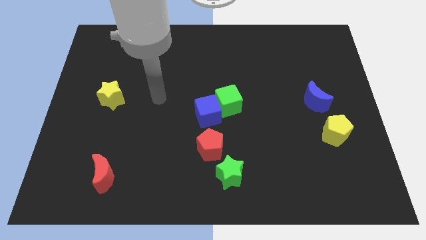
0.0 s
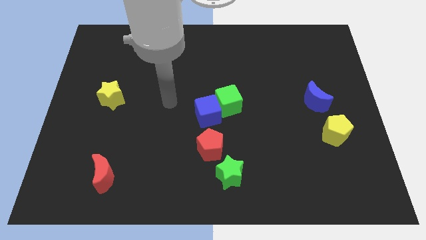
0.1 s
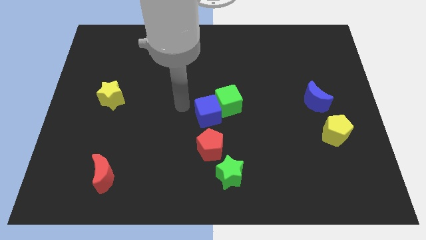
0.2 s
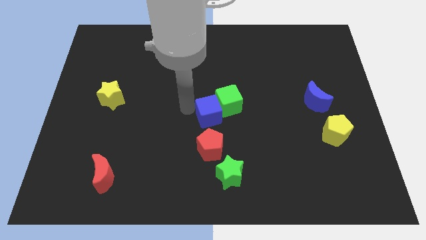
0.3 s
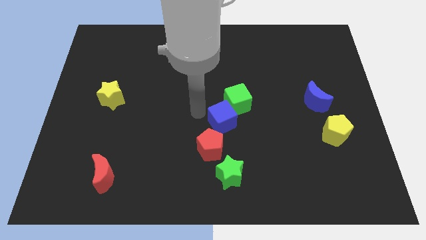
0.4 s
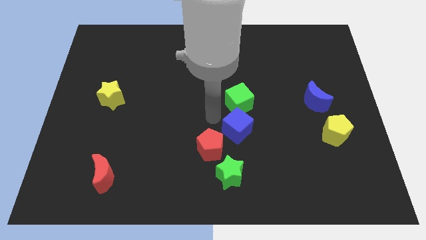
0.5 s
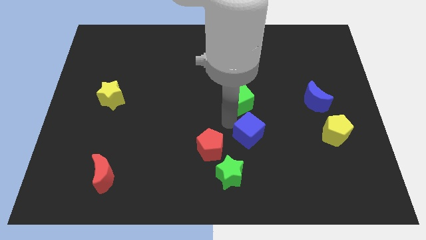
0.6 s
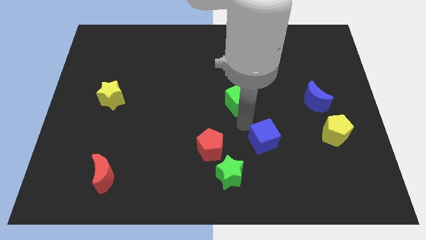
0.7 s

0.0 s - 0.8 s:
pull the green cube apart from the blue cube

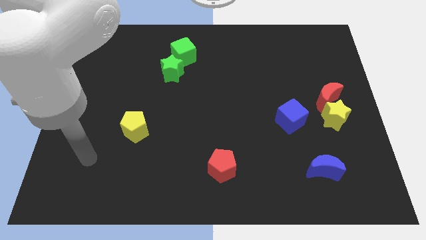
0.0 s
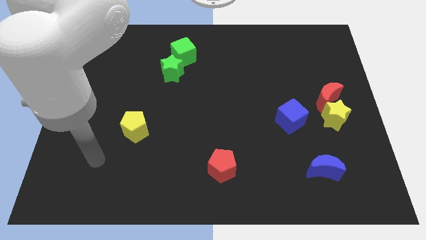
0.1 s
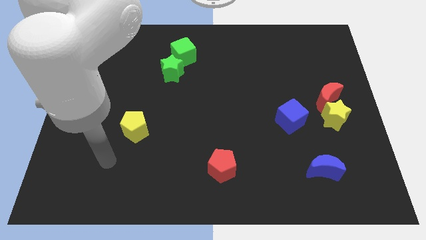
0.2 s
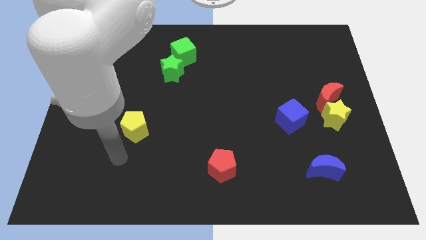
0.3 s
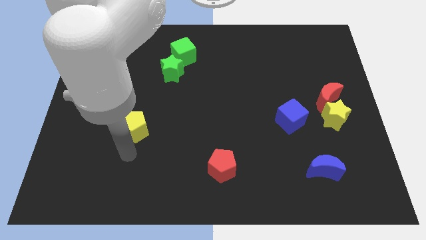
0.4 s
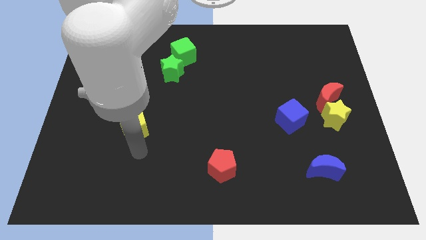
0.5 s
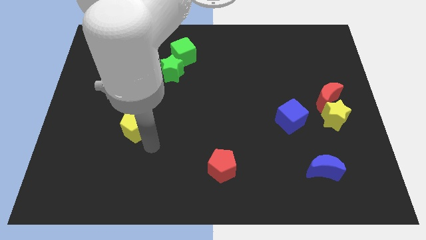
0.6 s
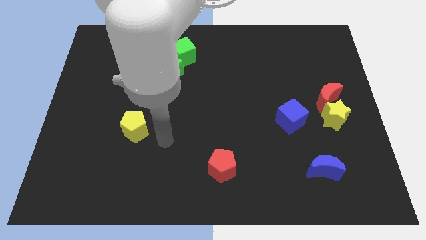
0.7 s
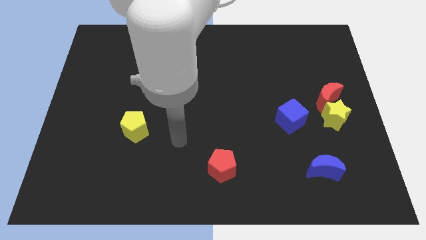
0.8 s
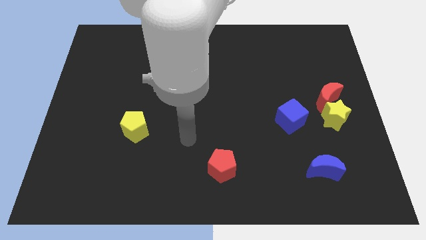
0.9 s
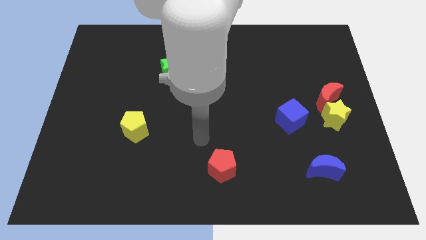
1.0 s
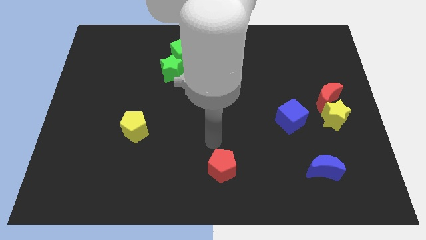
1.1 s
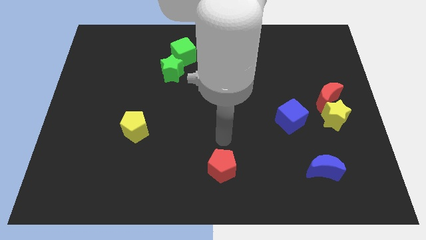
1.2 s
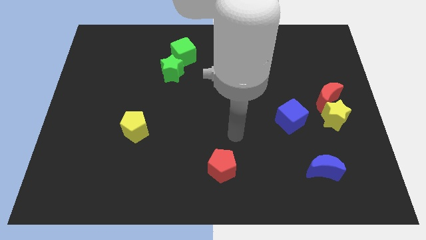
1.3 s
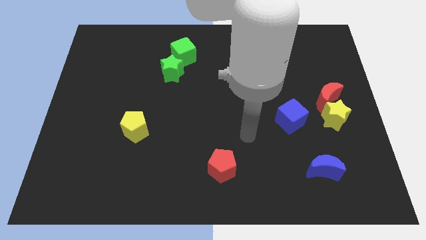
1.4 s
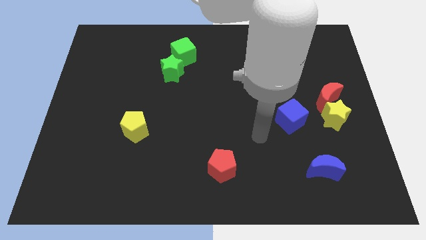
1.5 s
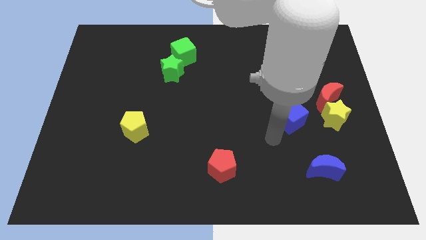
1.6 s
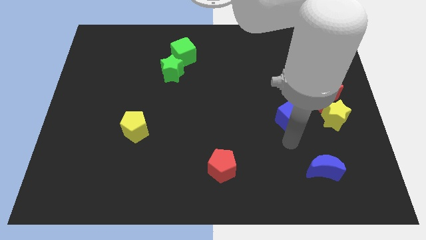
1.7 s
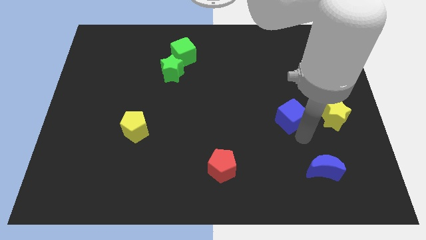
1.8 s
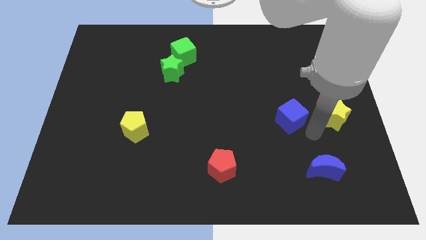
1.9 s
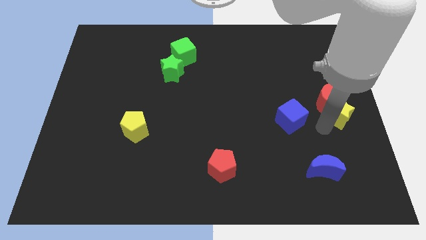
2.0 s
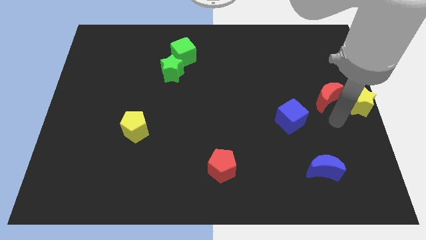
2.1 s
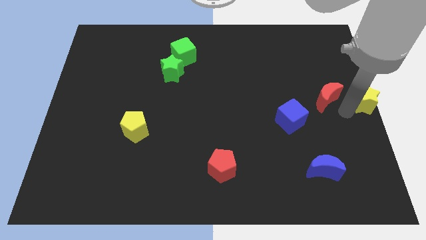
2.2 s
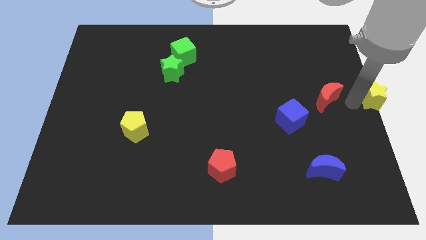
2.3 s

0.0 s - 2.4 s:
pull the red moon apart from the yellow star

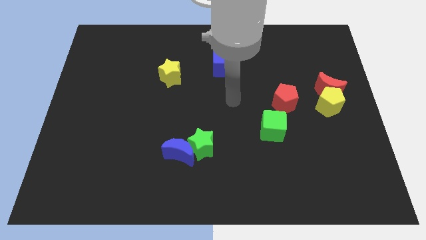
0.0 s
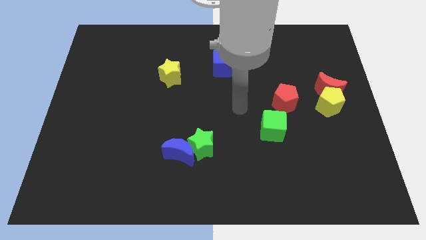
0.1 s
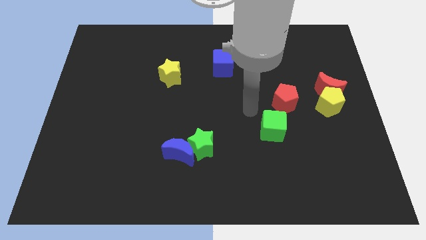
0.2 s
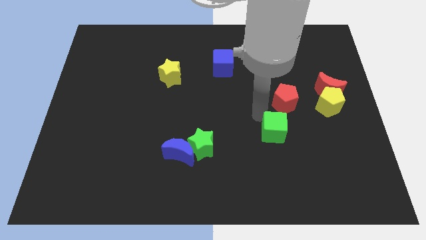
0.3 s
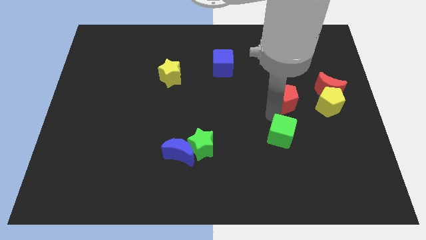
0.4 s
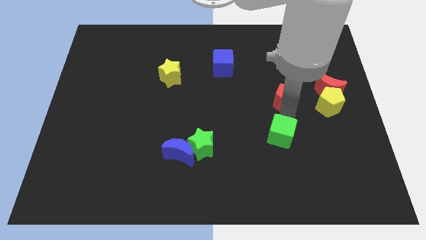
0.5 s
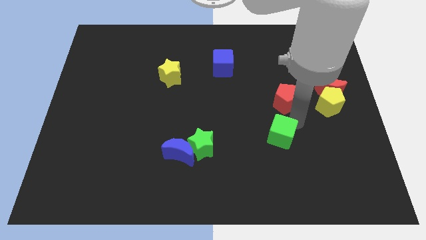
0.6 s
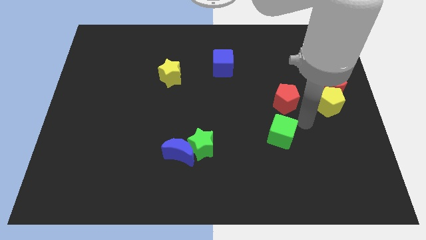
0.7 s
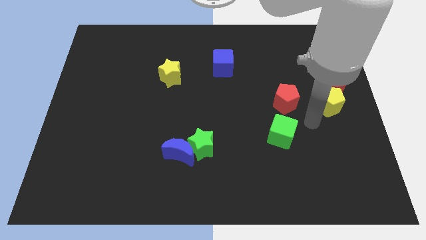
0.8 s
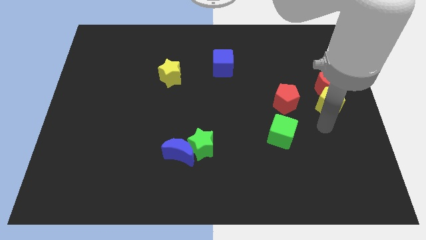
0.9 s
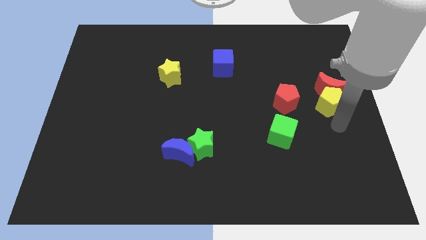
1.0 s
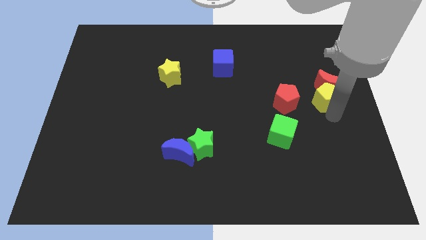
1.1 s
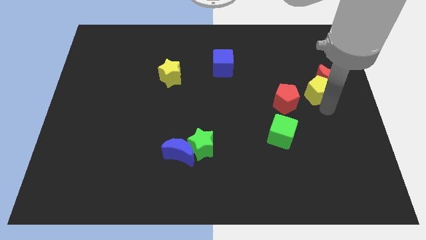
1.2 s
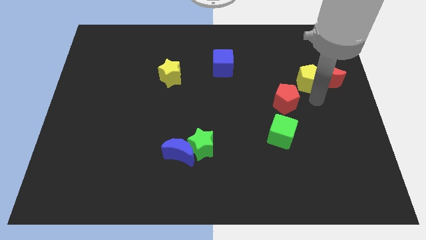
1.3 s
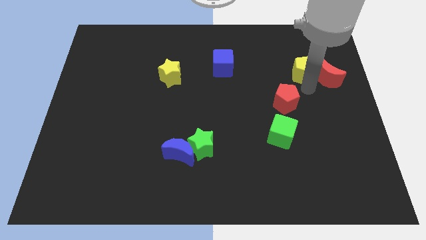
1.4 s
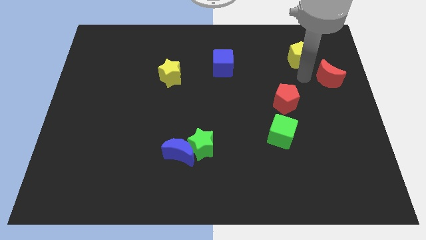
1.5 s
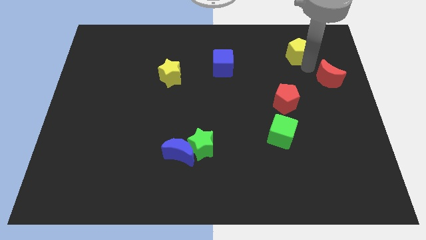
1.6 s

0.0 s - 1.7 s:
pull the red moon apart from the yellow pentagon

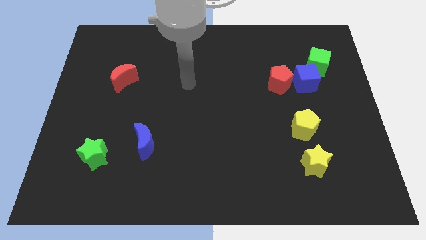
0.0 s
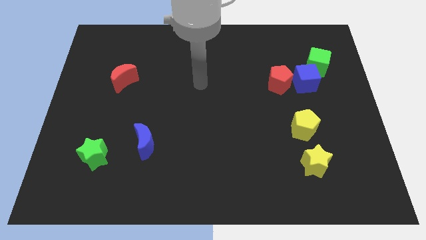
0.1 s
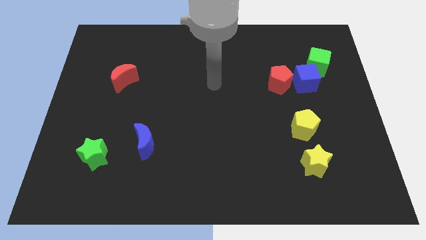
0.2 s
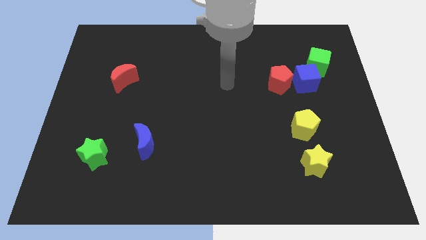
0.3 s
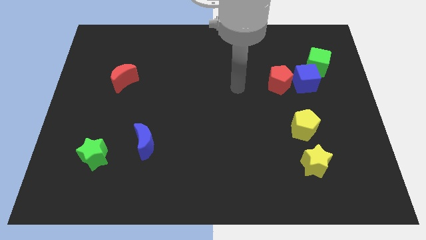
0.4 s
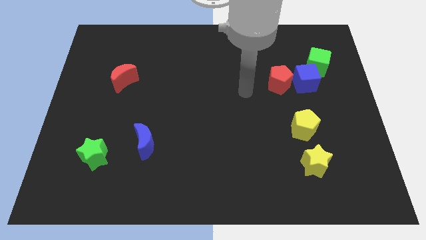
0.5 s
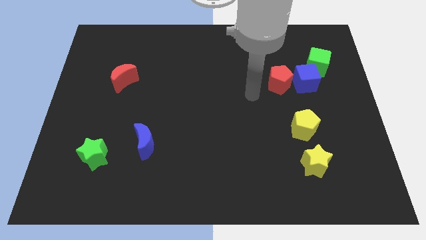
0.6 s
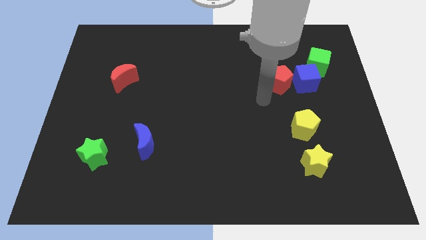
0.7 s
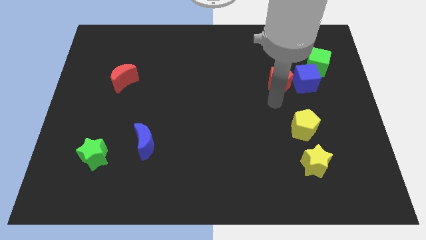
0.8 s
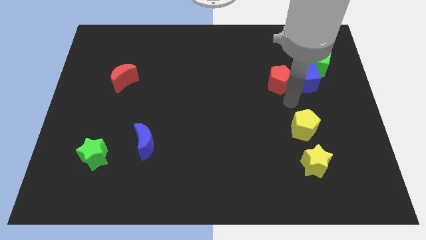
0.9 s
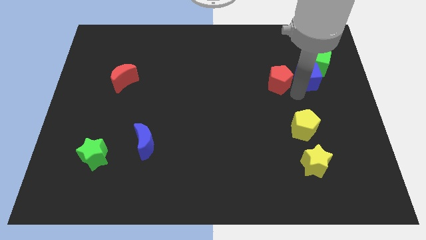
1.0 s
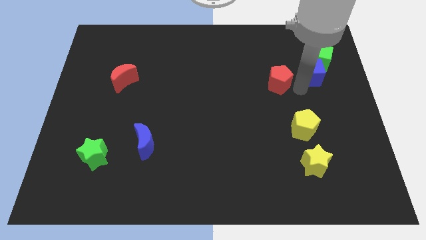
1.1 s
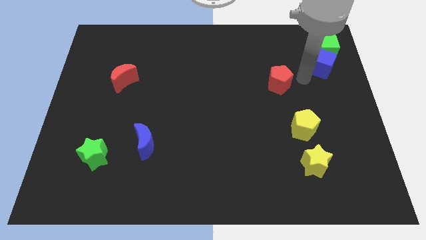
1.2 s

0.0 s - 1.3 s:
separate the red pentagon from the blue cube

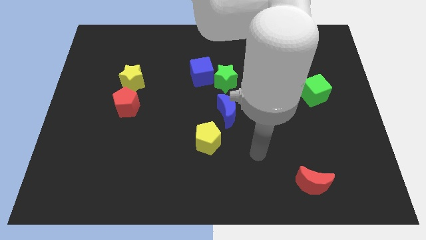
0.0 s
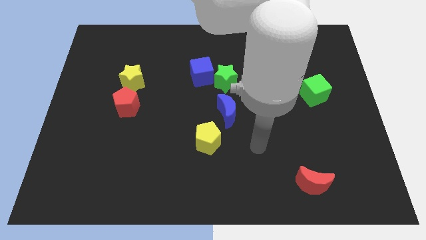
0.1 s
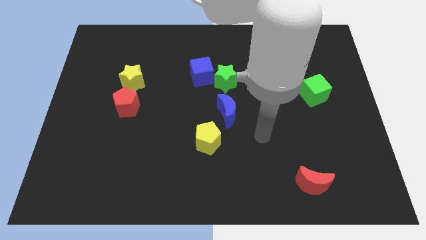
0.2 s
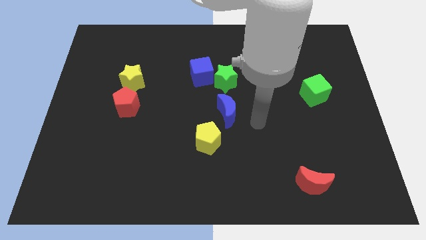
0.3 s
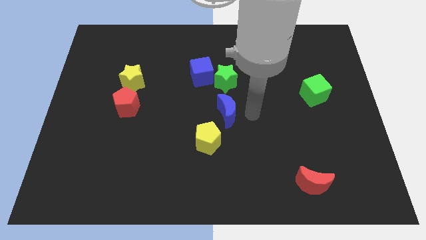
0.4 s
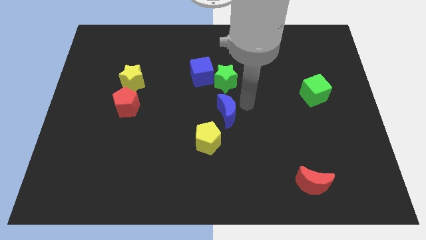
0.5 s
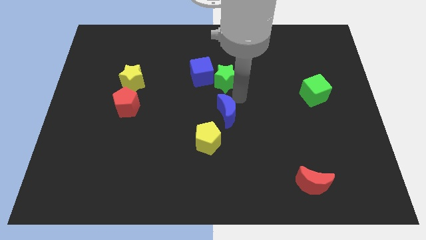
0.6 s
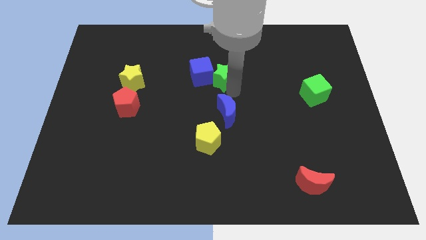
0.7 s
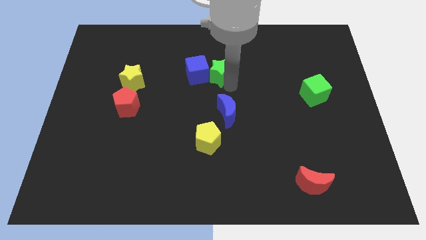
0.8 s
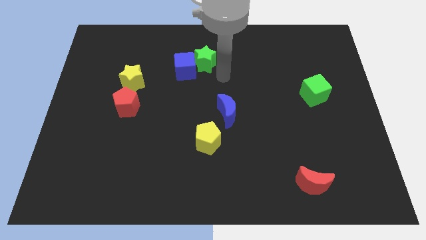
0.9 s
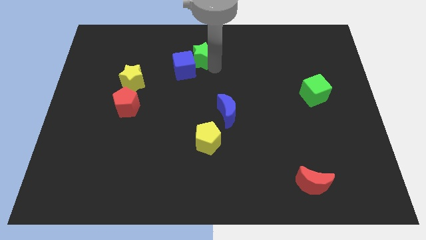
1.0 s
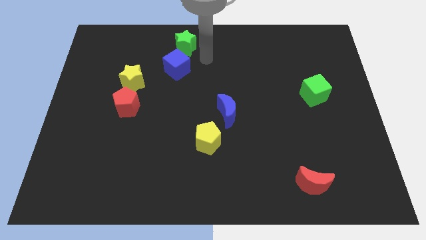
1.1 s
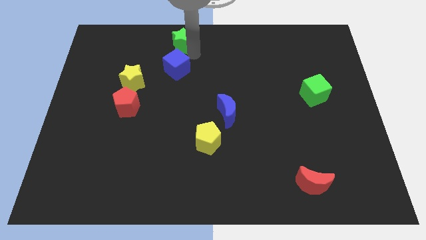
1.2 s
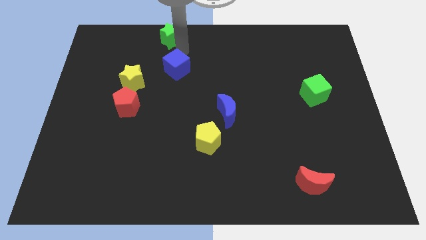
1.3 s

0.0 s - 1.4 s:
pull the blue cube apart from the green star

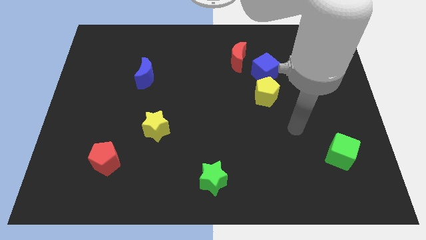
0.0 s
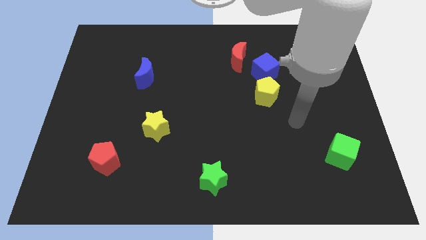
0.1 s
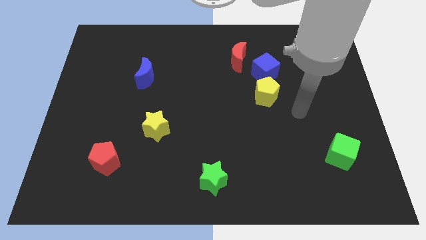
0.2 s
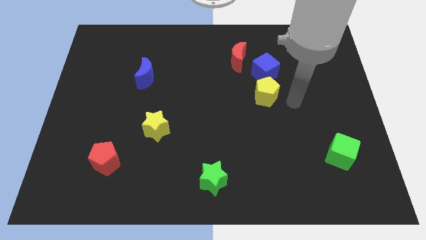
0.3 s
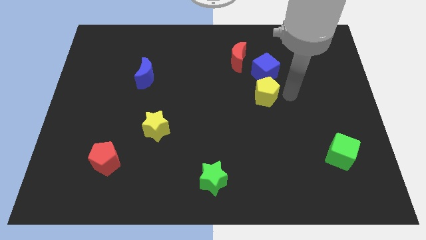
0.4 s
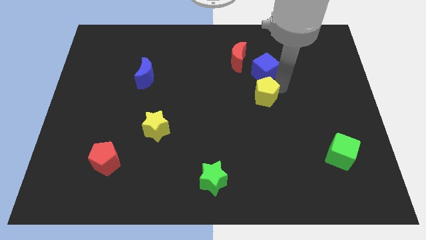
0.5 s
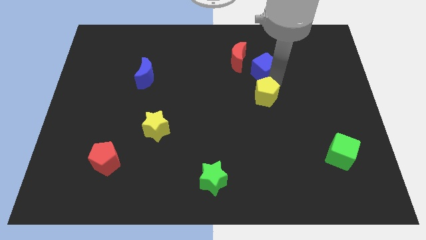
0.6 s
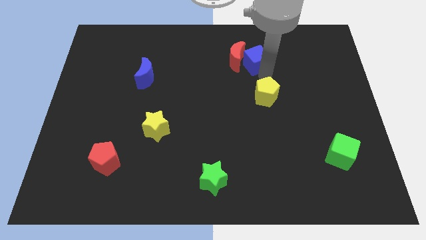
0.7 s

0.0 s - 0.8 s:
separate the yellow pentagon from the blue cube

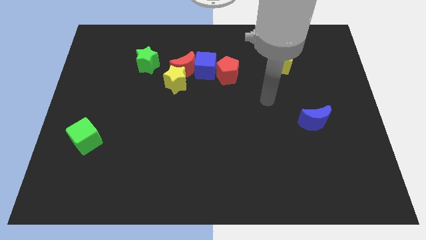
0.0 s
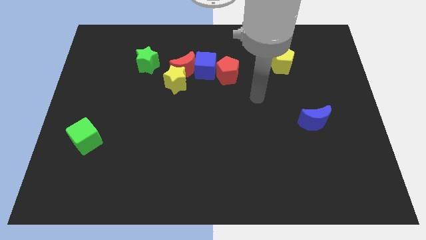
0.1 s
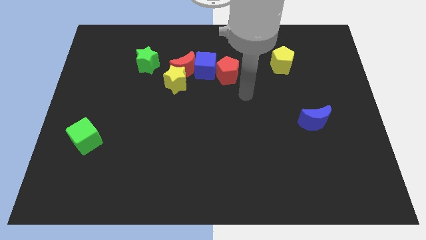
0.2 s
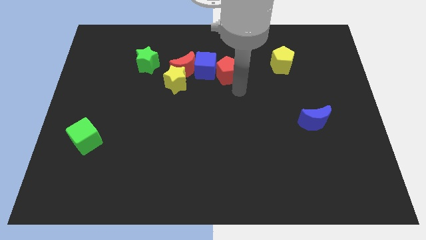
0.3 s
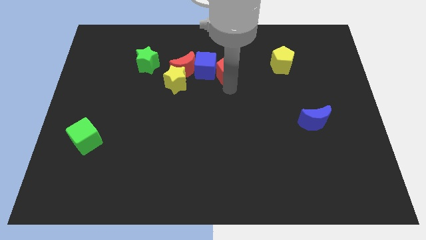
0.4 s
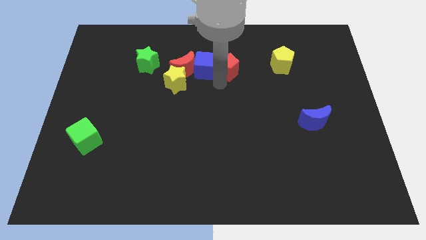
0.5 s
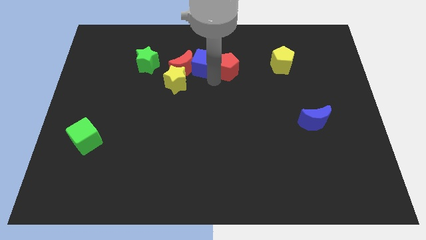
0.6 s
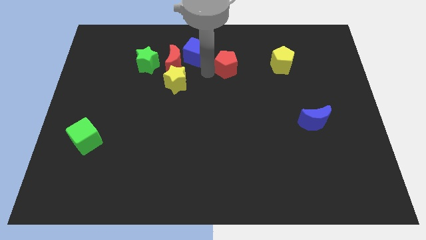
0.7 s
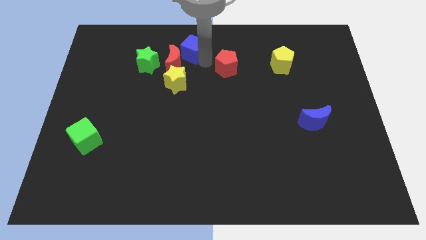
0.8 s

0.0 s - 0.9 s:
move the red pentagon away from the blue cube

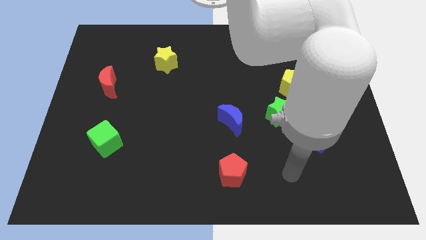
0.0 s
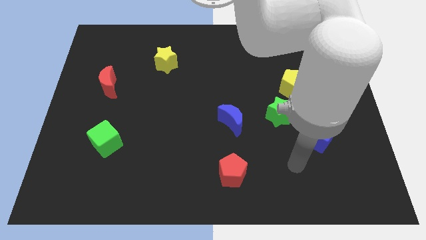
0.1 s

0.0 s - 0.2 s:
pull the yellow pentagon apart from the green star
